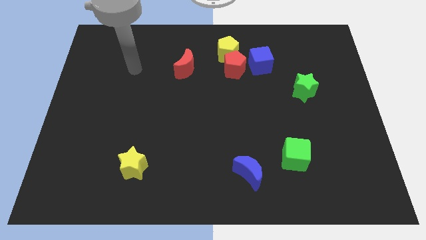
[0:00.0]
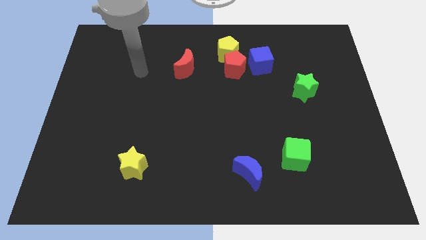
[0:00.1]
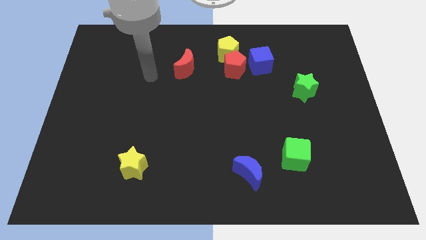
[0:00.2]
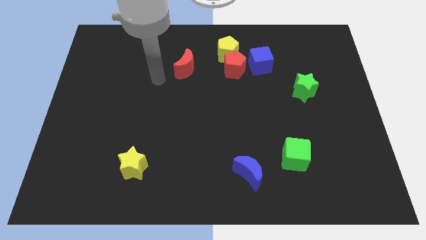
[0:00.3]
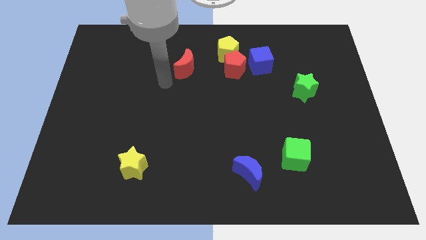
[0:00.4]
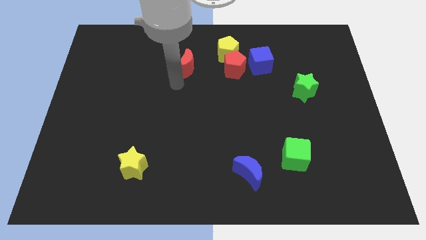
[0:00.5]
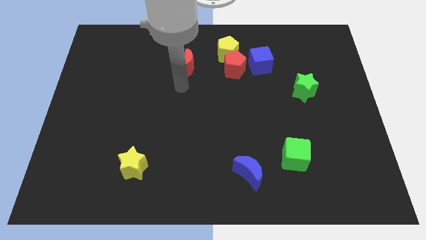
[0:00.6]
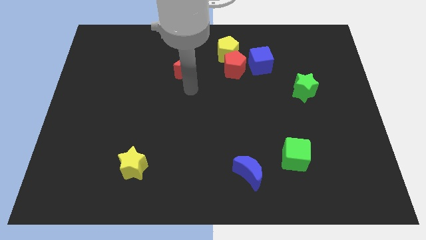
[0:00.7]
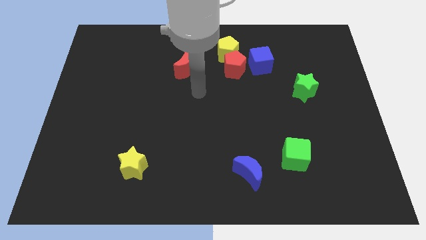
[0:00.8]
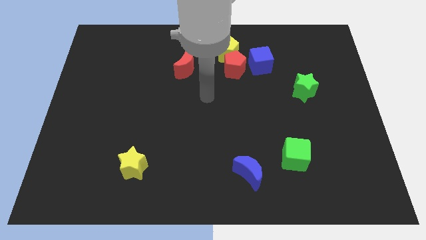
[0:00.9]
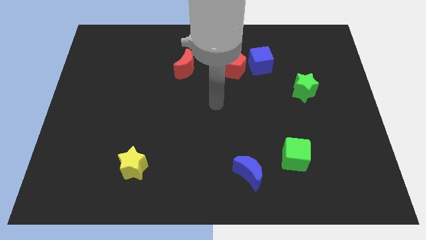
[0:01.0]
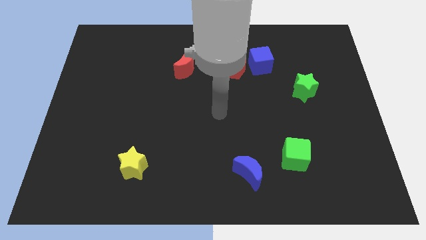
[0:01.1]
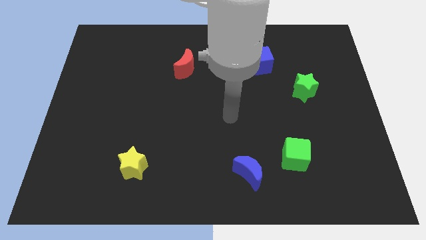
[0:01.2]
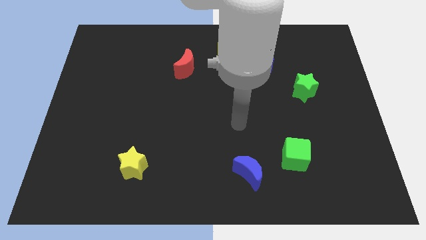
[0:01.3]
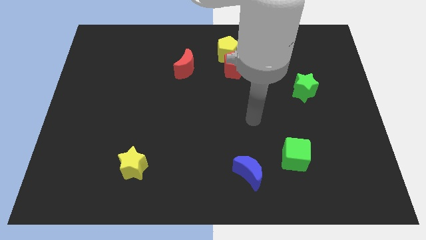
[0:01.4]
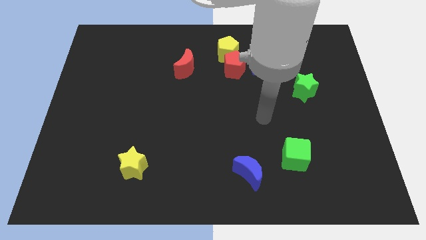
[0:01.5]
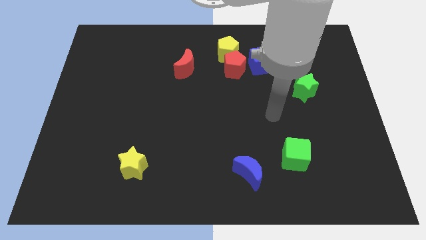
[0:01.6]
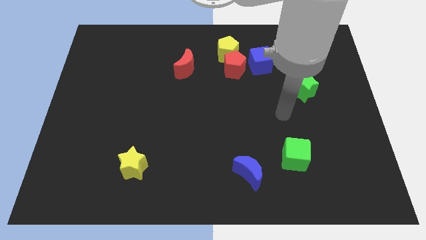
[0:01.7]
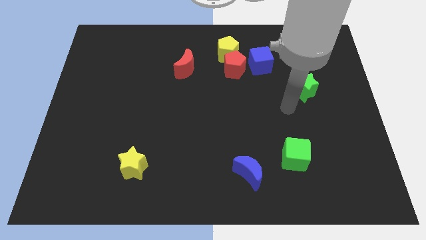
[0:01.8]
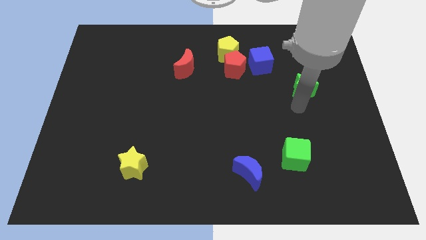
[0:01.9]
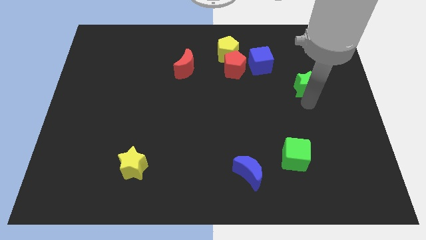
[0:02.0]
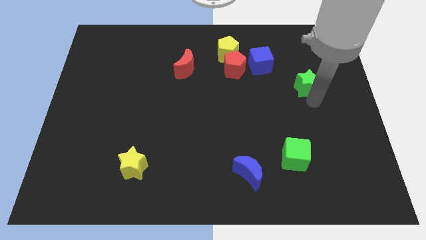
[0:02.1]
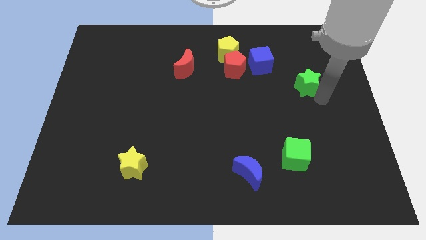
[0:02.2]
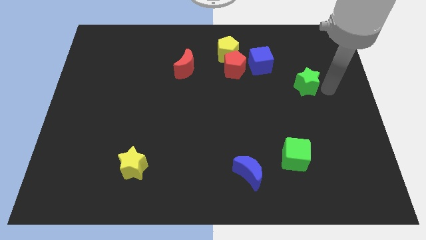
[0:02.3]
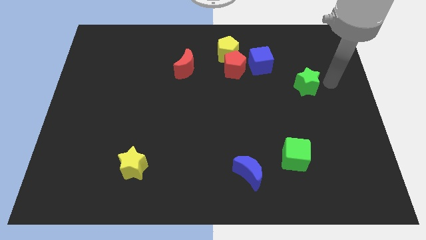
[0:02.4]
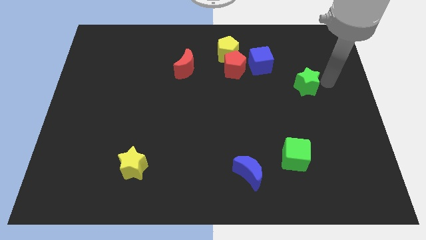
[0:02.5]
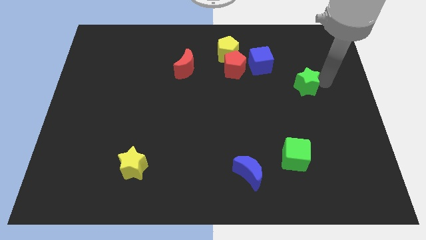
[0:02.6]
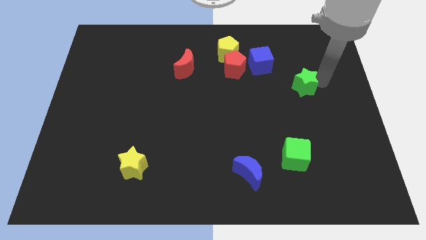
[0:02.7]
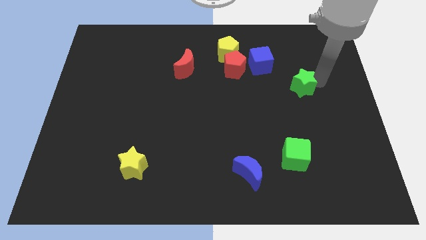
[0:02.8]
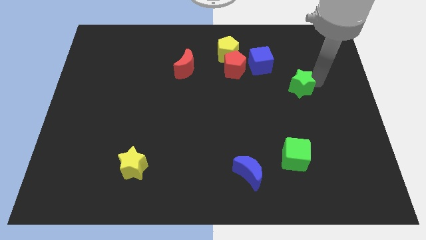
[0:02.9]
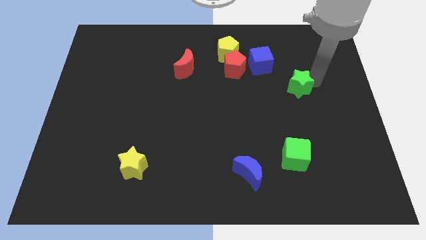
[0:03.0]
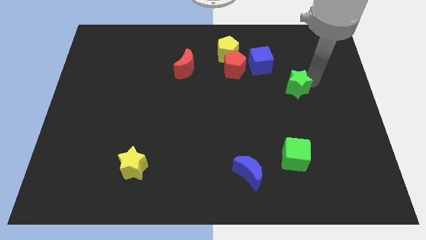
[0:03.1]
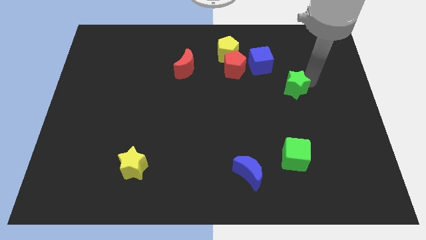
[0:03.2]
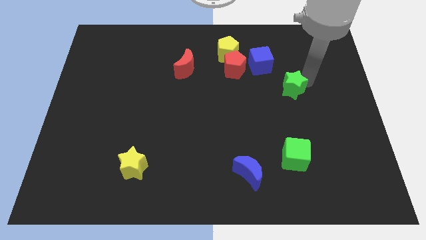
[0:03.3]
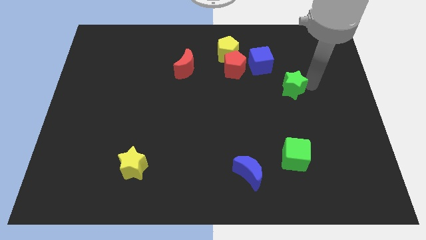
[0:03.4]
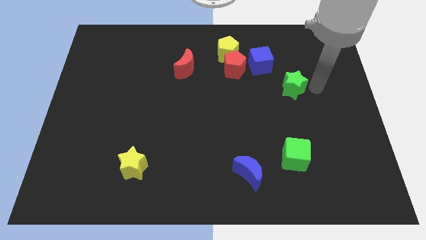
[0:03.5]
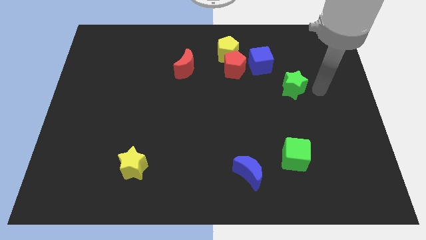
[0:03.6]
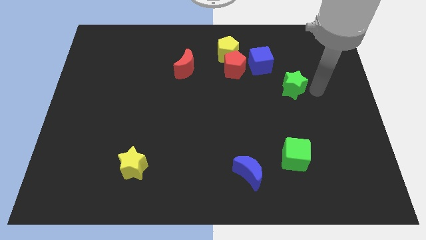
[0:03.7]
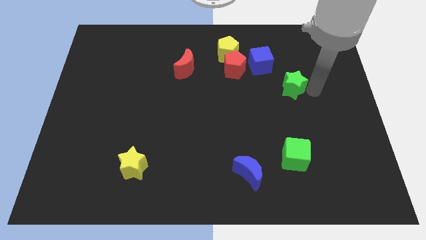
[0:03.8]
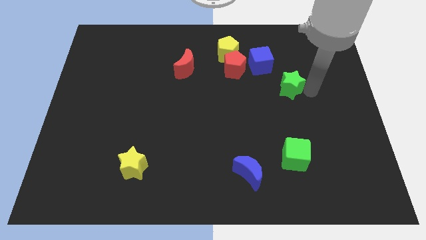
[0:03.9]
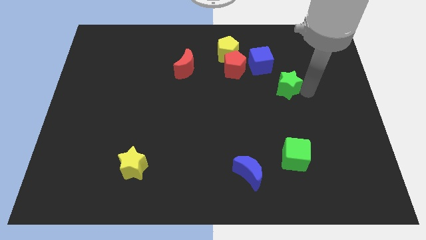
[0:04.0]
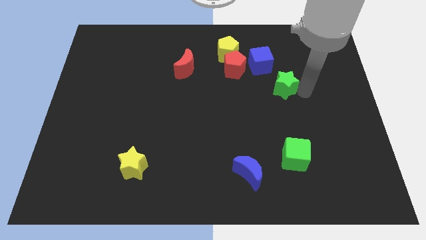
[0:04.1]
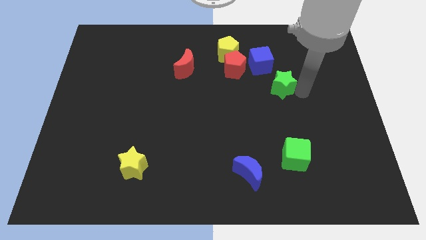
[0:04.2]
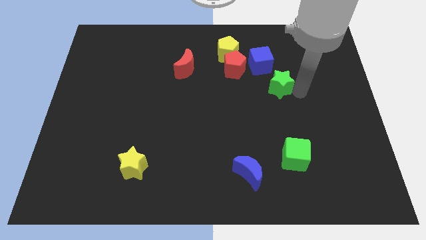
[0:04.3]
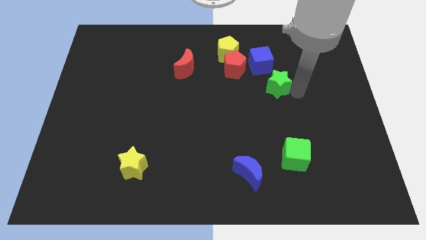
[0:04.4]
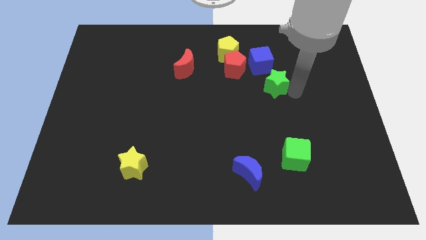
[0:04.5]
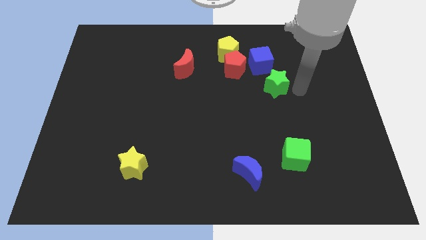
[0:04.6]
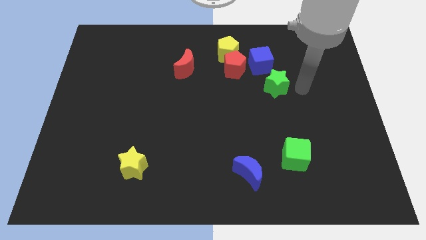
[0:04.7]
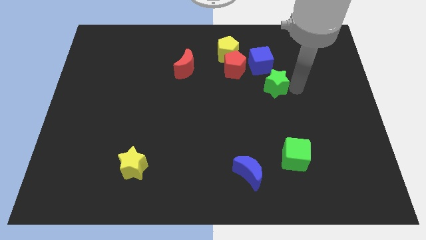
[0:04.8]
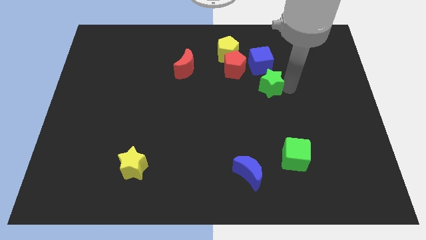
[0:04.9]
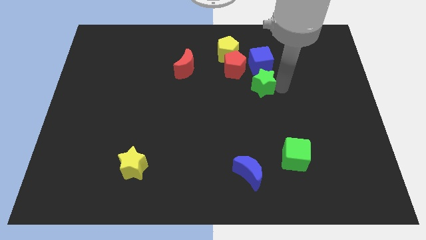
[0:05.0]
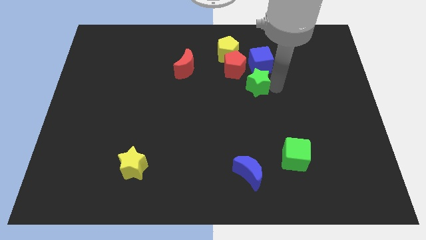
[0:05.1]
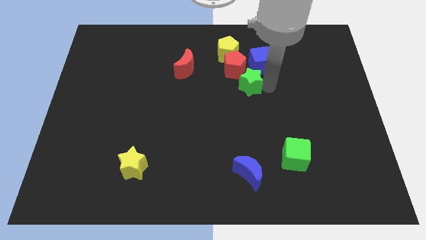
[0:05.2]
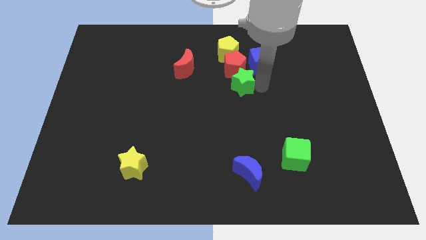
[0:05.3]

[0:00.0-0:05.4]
put the green star to the bottom of the yellow pentagon

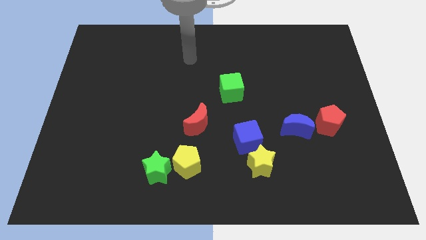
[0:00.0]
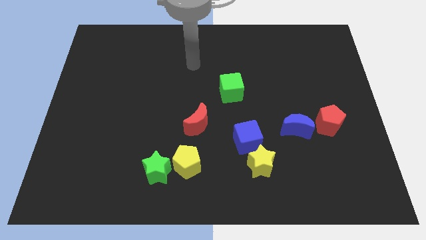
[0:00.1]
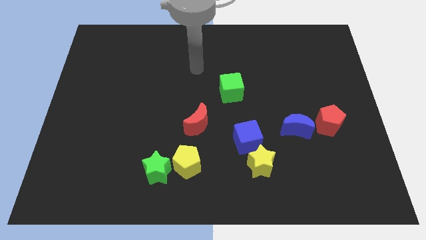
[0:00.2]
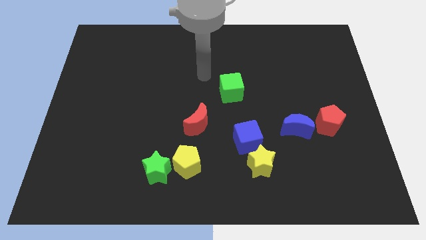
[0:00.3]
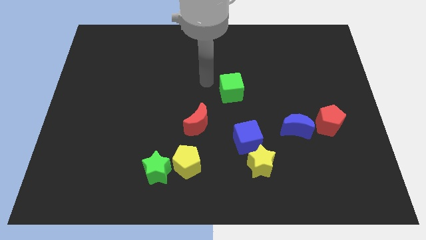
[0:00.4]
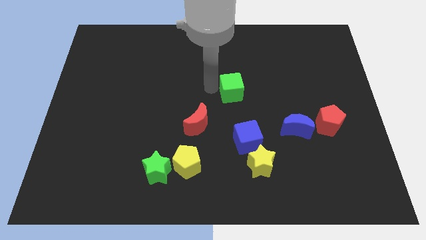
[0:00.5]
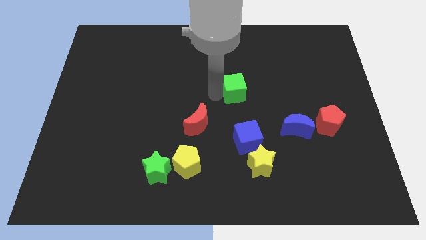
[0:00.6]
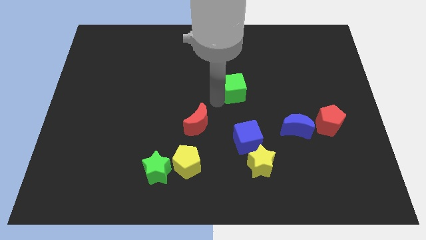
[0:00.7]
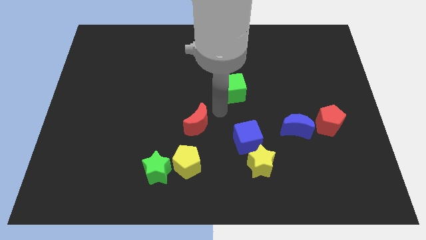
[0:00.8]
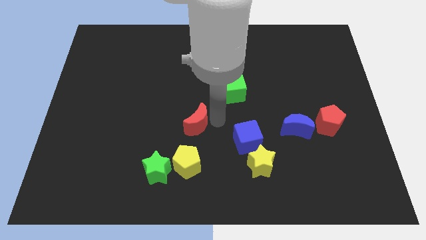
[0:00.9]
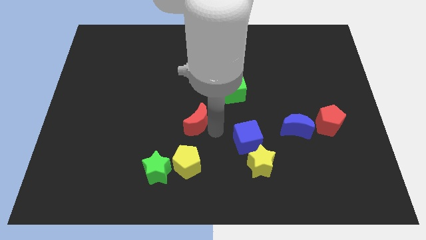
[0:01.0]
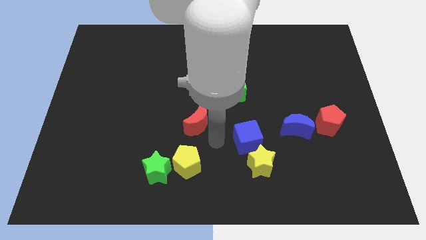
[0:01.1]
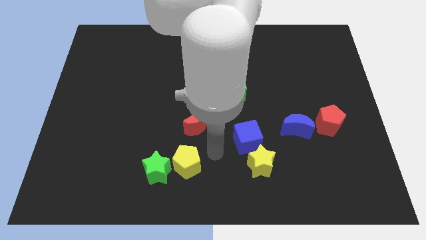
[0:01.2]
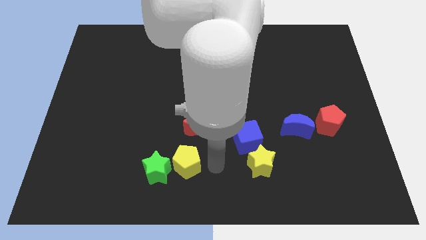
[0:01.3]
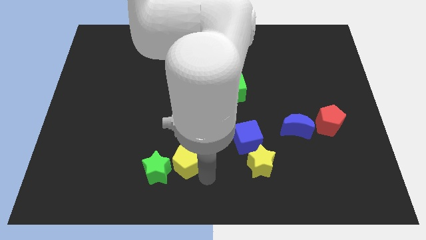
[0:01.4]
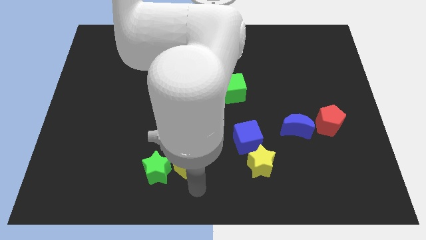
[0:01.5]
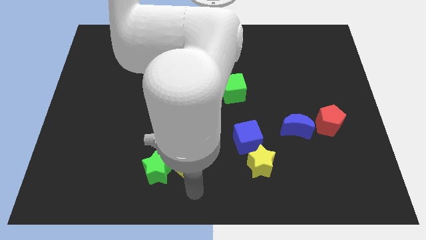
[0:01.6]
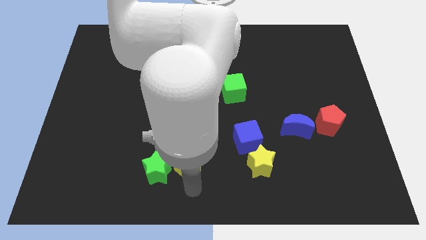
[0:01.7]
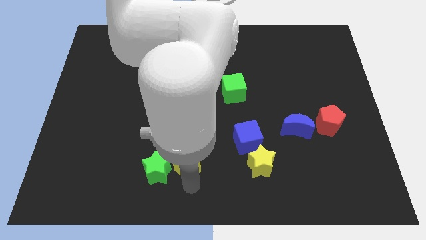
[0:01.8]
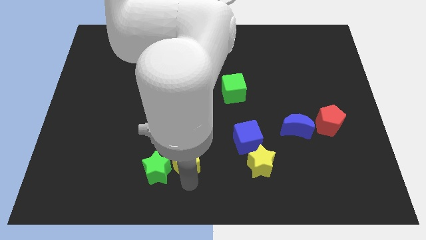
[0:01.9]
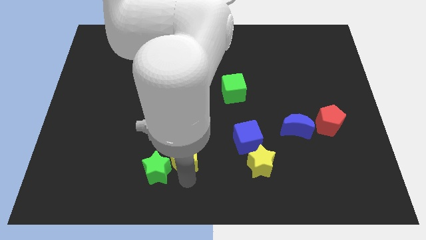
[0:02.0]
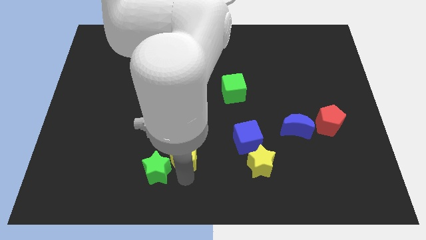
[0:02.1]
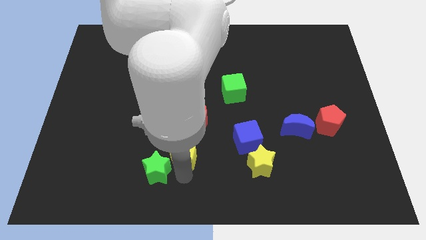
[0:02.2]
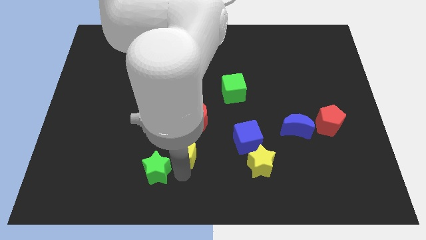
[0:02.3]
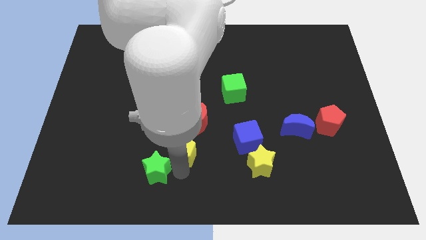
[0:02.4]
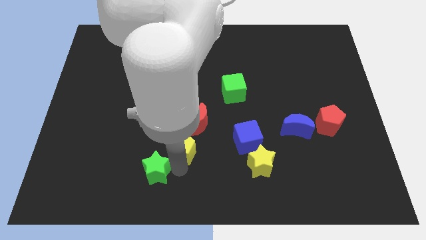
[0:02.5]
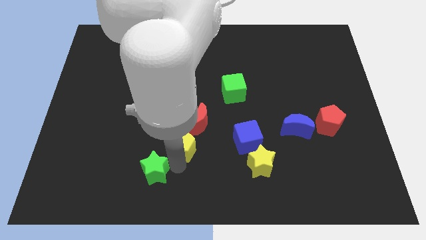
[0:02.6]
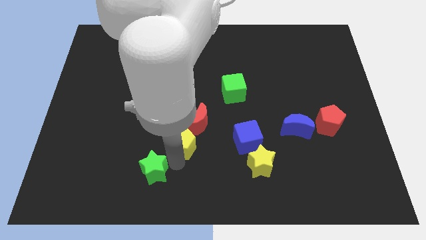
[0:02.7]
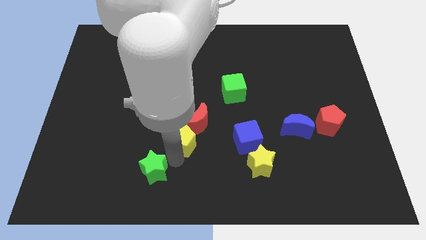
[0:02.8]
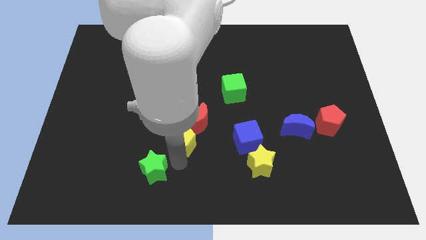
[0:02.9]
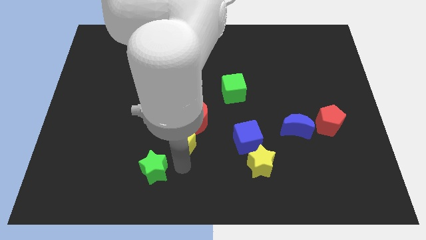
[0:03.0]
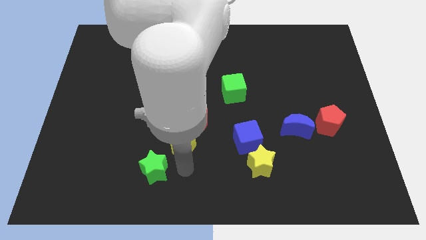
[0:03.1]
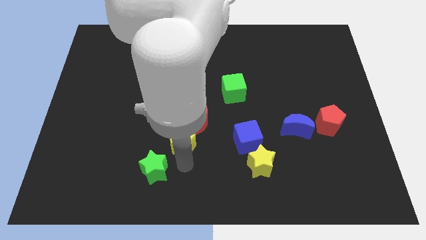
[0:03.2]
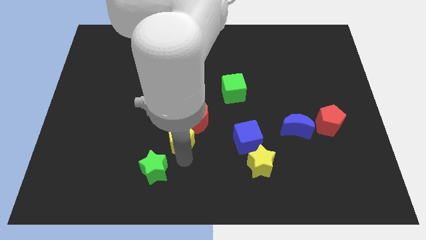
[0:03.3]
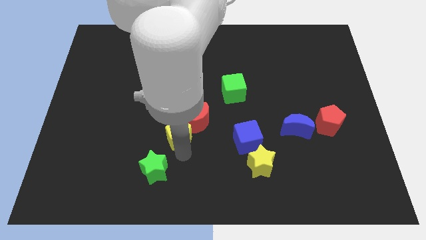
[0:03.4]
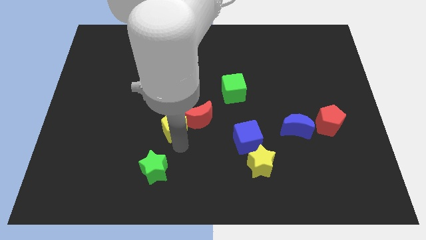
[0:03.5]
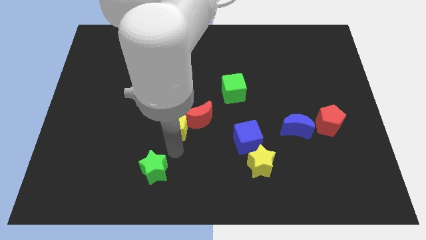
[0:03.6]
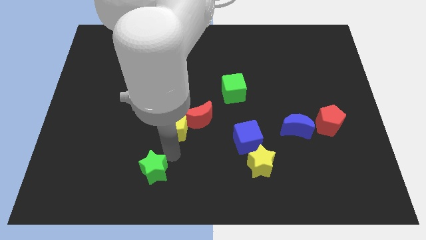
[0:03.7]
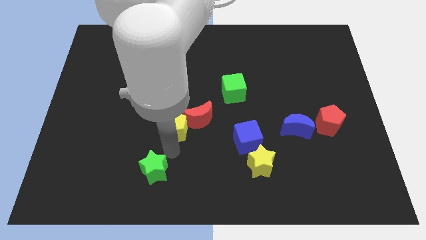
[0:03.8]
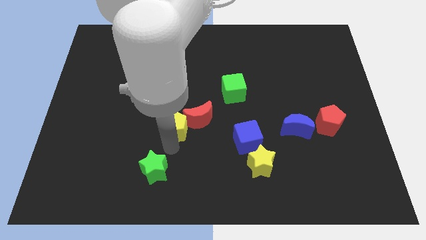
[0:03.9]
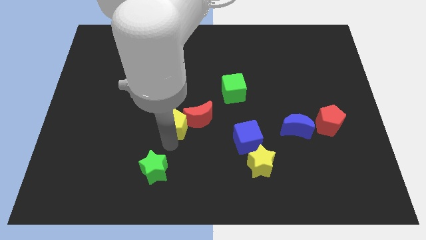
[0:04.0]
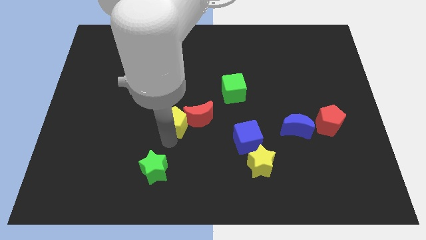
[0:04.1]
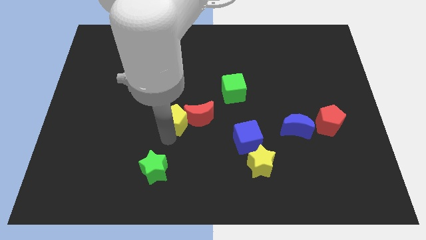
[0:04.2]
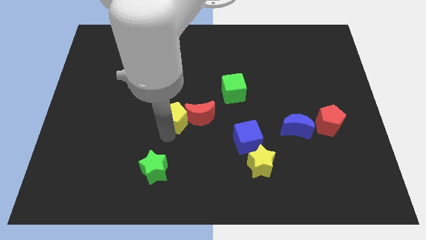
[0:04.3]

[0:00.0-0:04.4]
push the yellow pentagon diagonally up and to the left of the red moon
